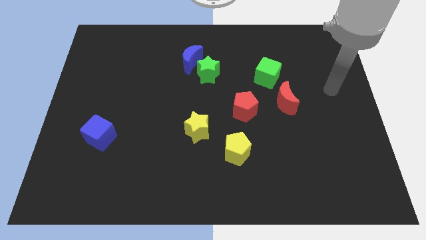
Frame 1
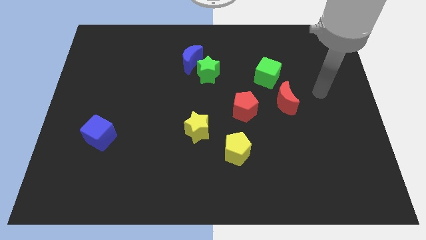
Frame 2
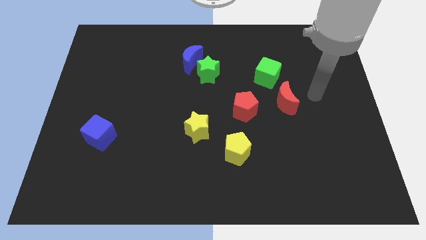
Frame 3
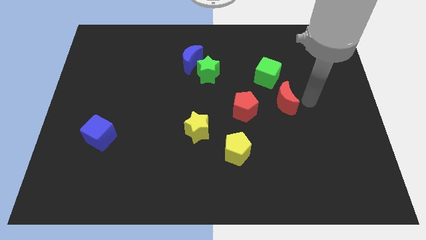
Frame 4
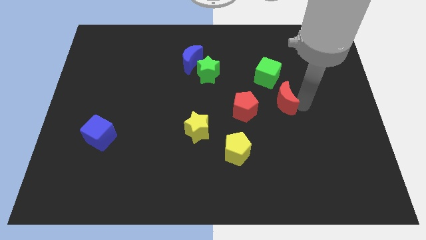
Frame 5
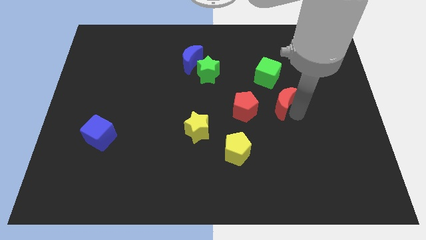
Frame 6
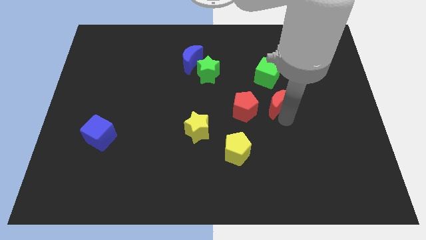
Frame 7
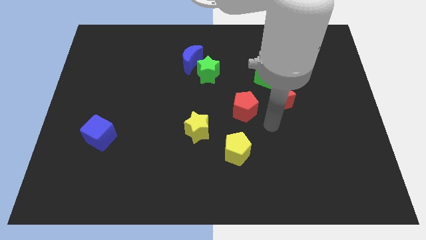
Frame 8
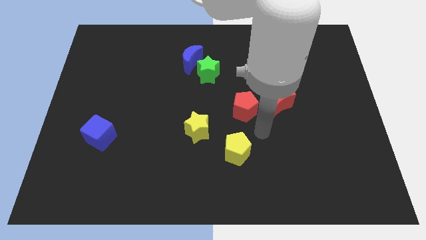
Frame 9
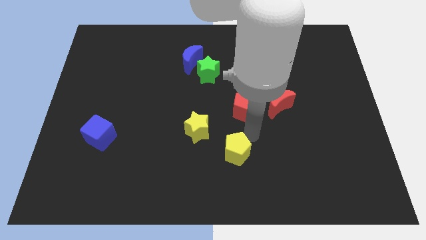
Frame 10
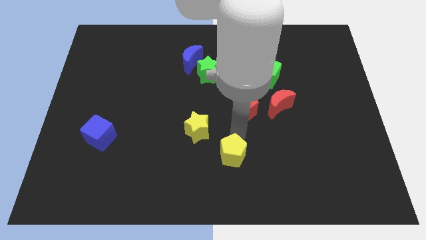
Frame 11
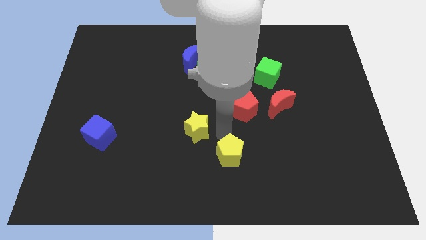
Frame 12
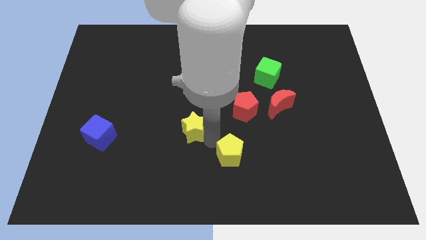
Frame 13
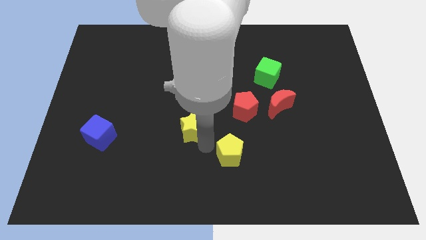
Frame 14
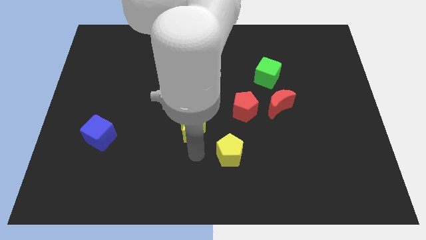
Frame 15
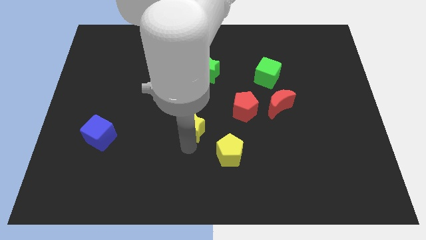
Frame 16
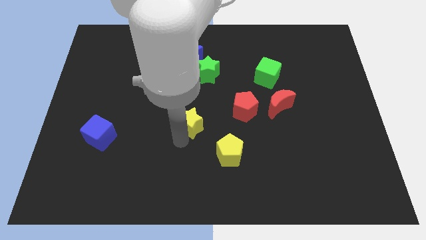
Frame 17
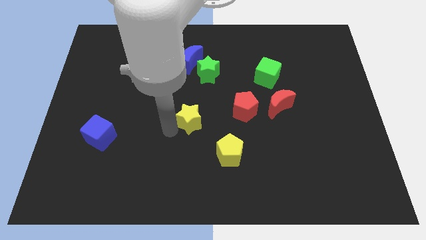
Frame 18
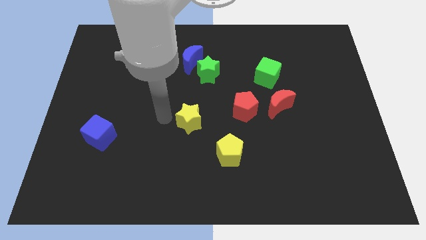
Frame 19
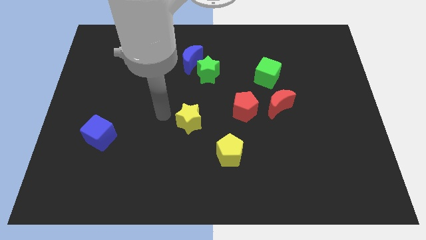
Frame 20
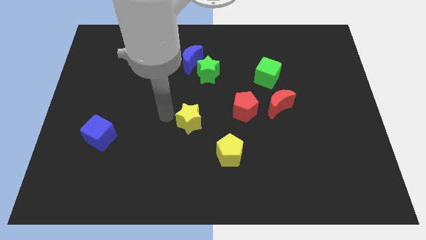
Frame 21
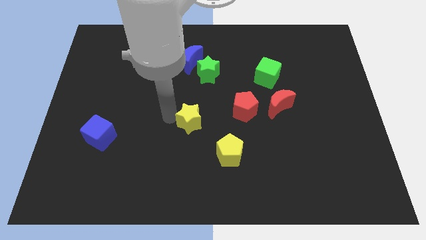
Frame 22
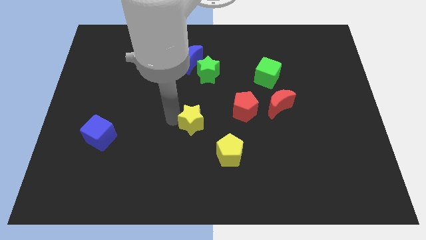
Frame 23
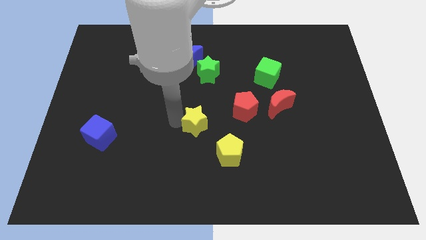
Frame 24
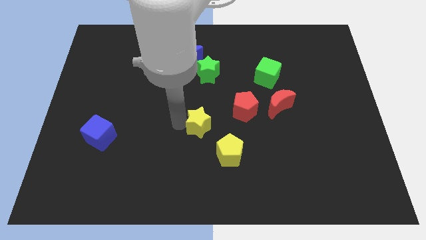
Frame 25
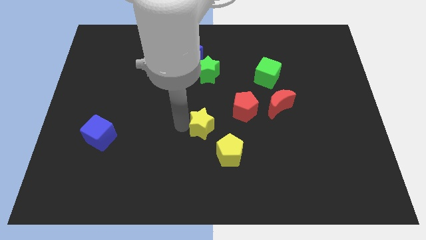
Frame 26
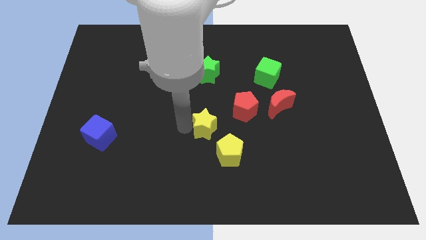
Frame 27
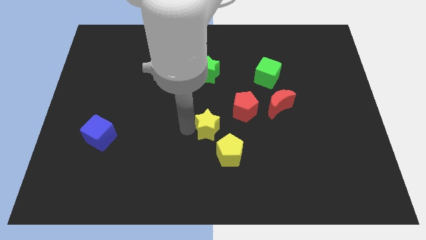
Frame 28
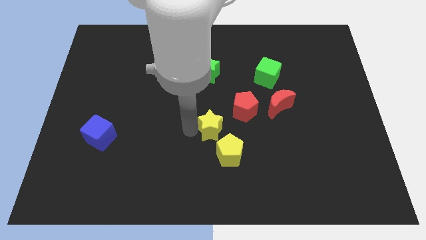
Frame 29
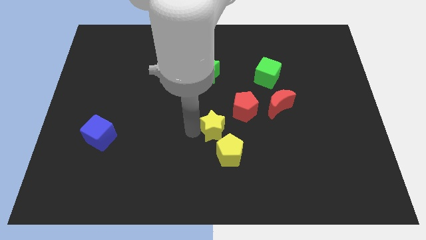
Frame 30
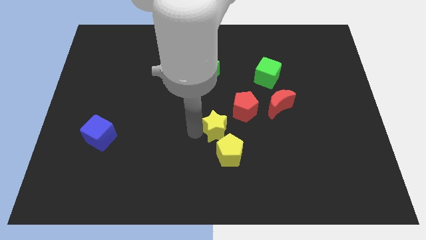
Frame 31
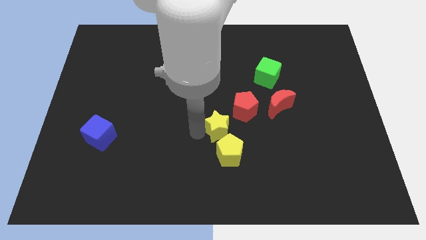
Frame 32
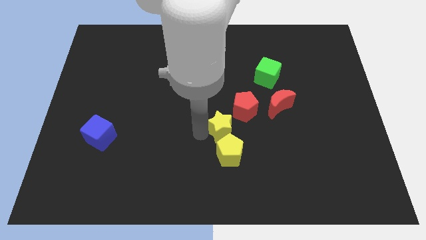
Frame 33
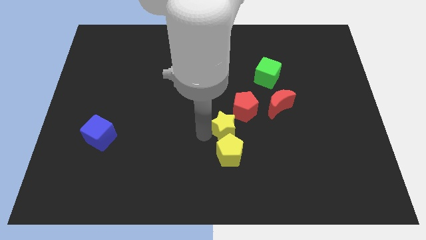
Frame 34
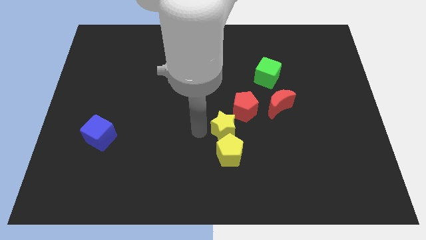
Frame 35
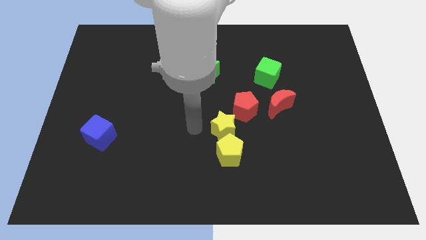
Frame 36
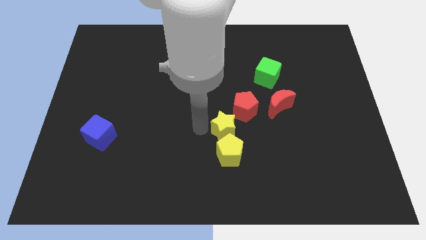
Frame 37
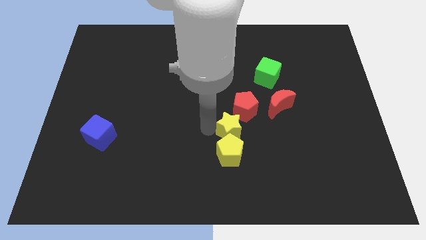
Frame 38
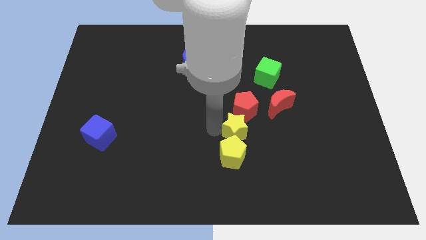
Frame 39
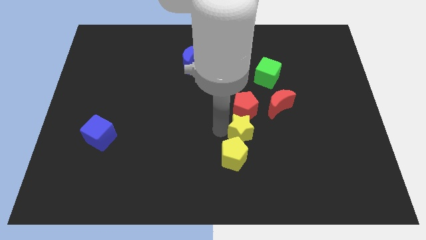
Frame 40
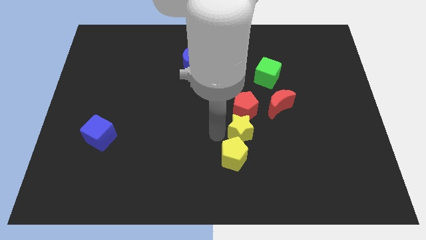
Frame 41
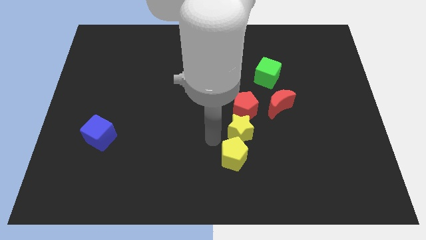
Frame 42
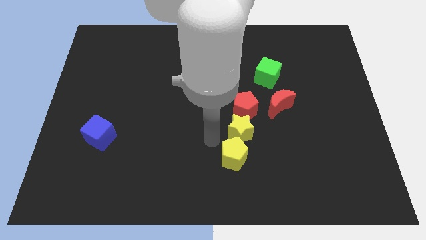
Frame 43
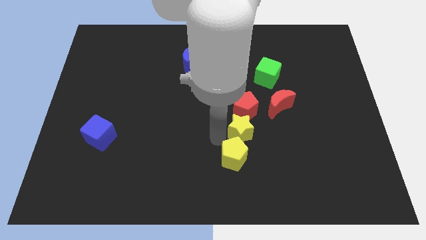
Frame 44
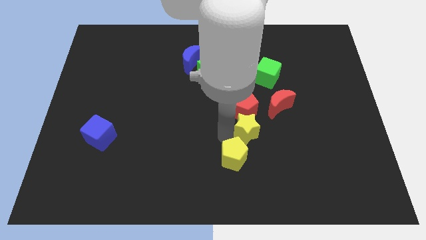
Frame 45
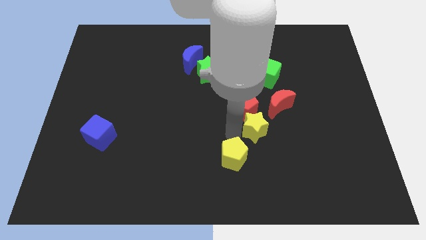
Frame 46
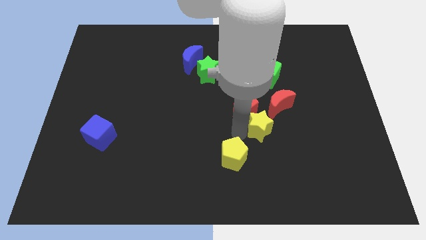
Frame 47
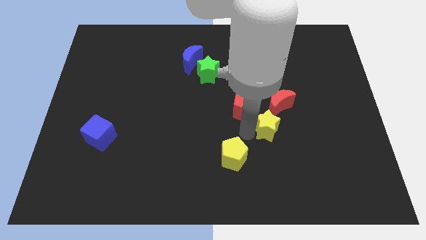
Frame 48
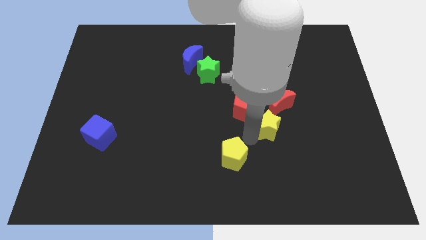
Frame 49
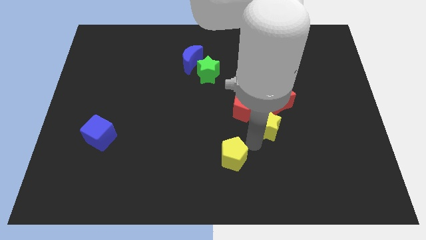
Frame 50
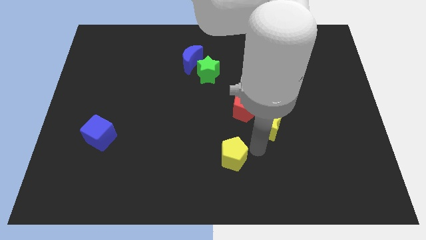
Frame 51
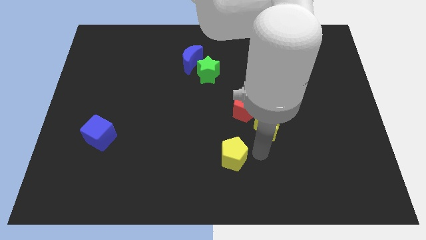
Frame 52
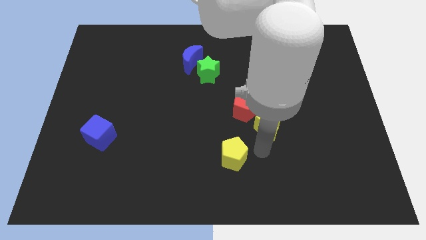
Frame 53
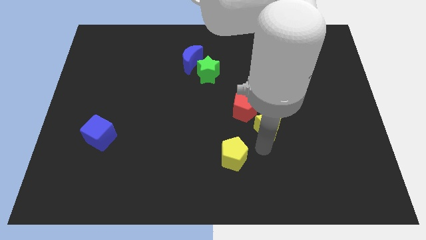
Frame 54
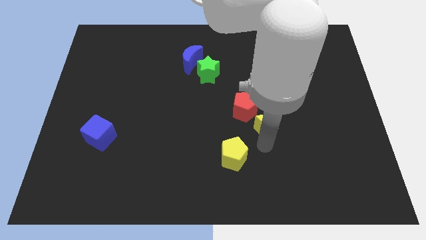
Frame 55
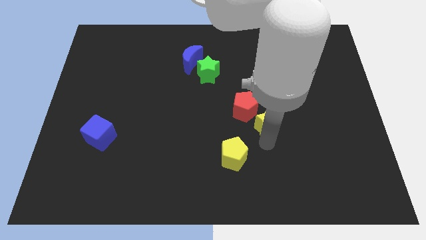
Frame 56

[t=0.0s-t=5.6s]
push the yellow star to the bottom of the green cube

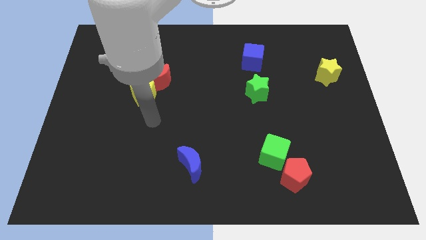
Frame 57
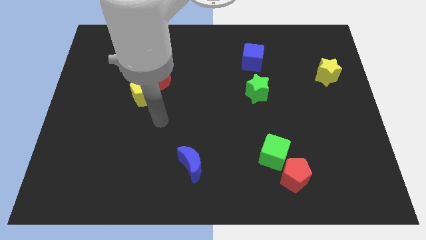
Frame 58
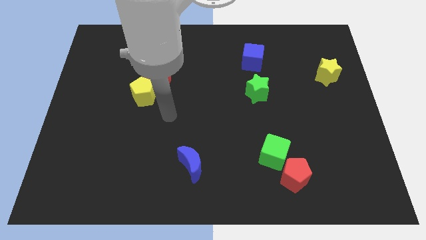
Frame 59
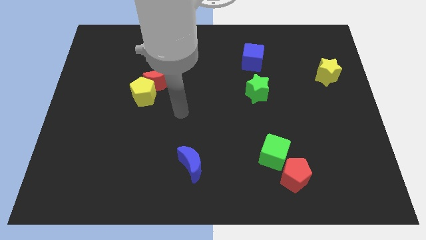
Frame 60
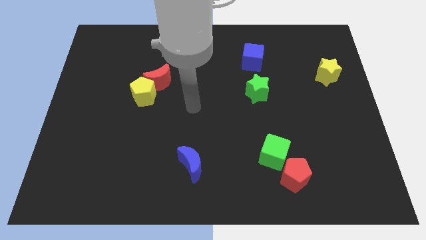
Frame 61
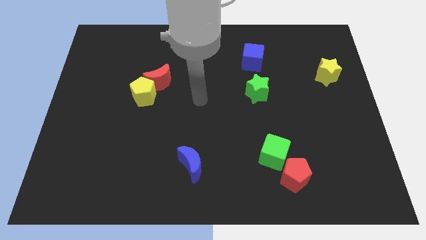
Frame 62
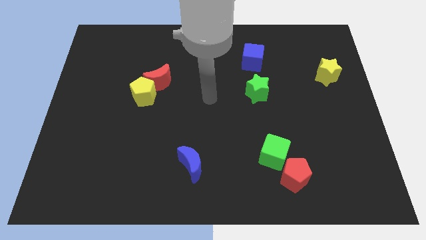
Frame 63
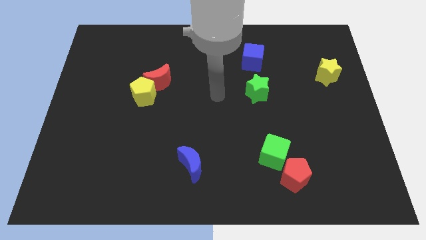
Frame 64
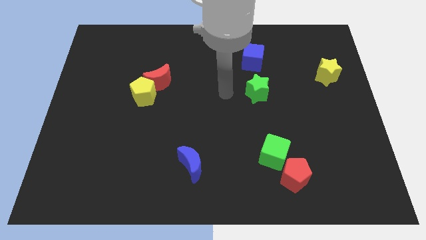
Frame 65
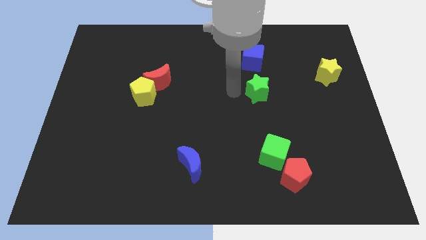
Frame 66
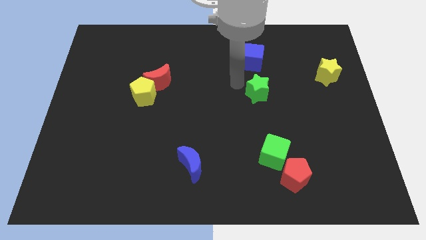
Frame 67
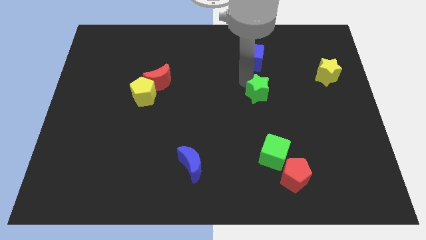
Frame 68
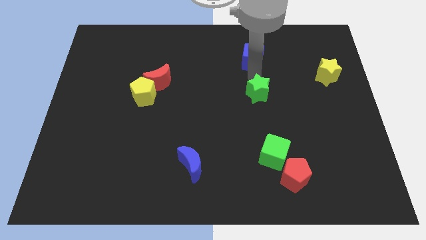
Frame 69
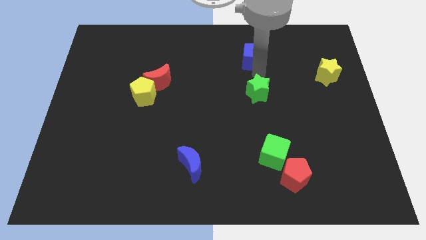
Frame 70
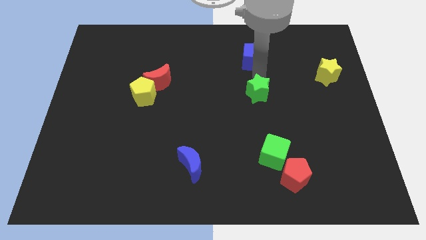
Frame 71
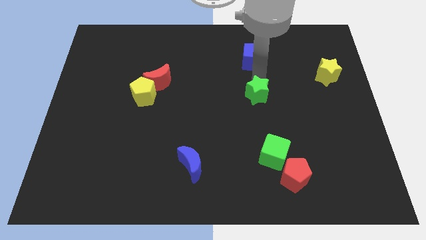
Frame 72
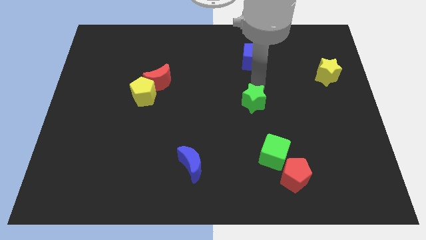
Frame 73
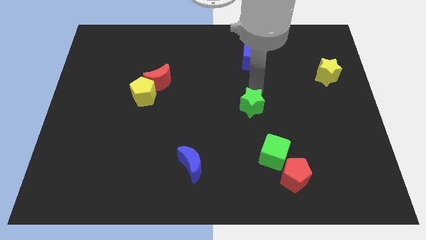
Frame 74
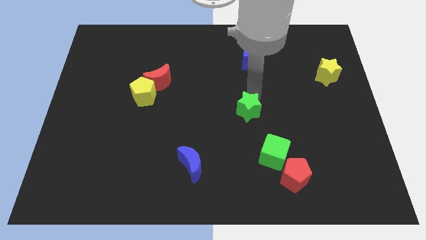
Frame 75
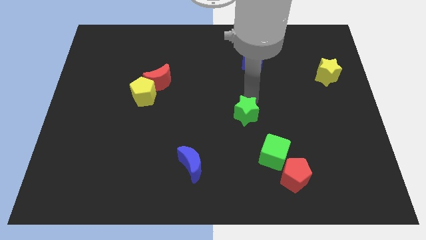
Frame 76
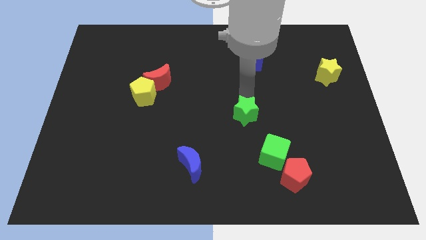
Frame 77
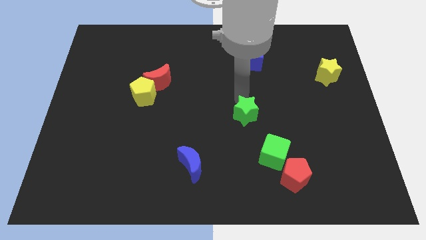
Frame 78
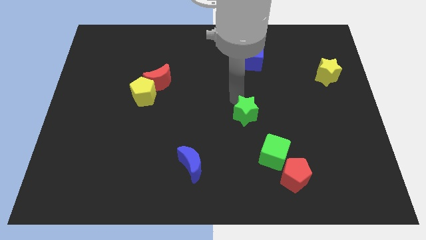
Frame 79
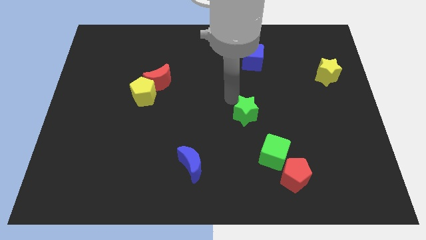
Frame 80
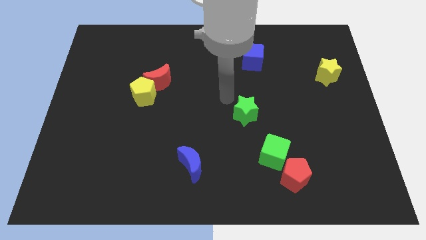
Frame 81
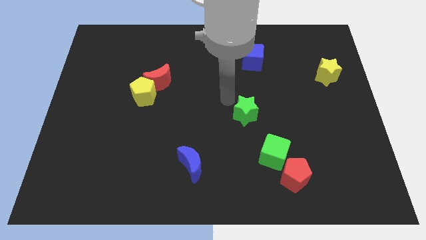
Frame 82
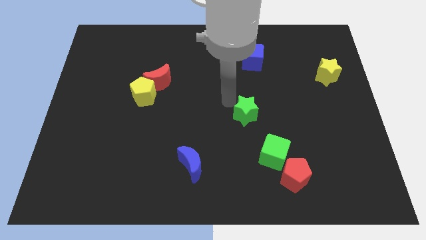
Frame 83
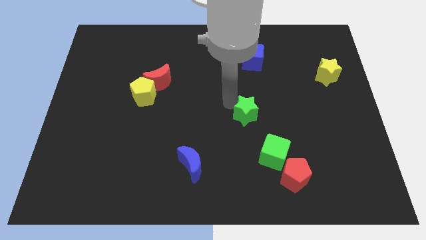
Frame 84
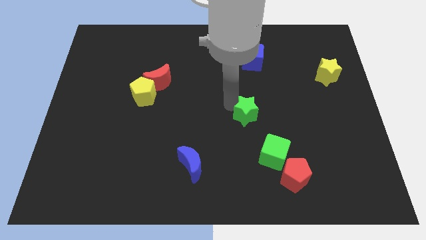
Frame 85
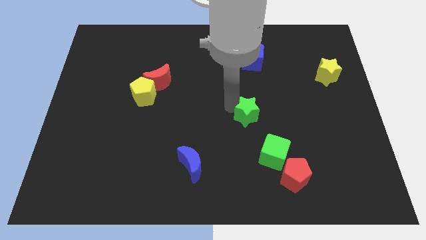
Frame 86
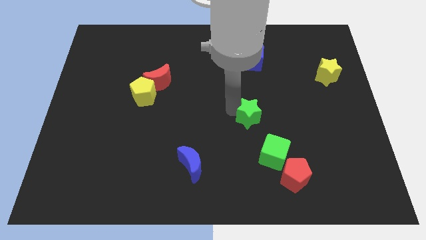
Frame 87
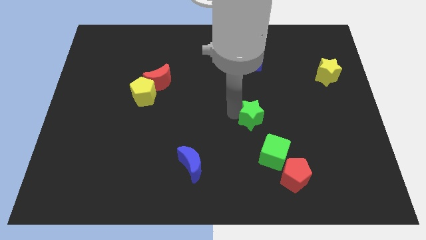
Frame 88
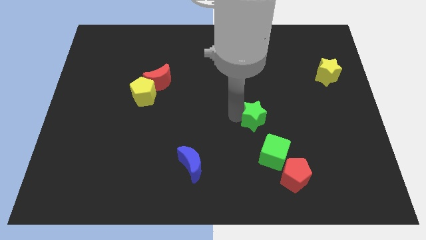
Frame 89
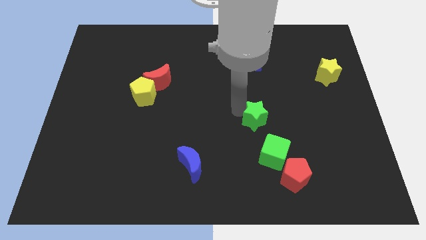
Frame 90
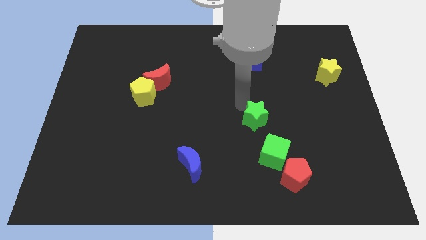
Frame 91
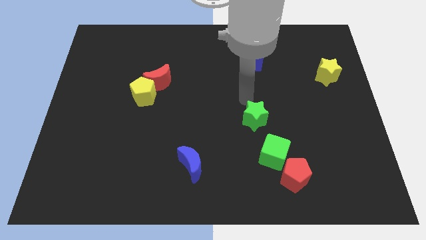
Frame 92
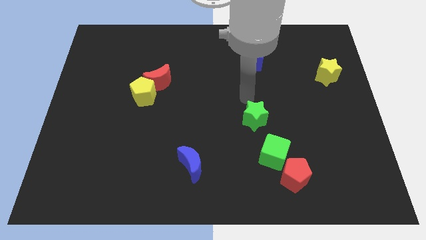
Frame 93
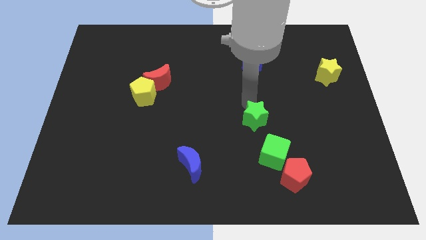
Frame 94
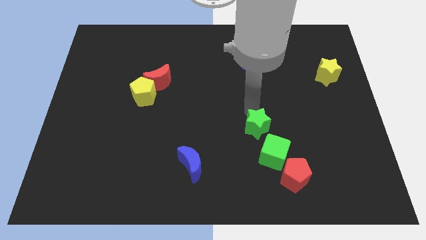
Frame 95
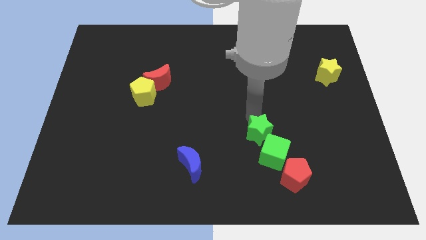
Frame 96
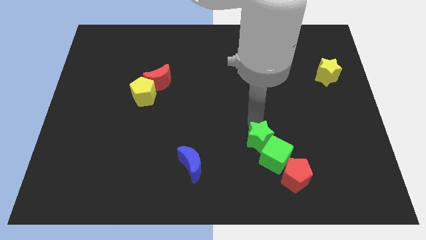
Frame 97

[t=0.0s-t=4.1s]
put the green star to the top left side of the red pentagon
